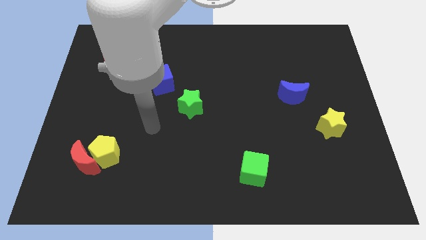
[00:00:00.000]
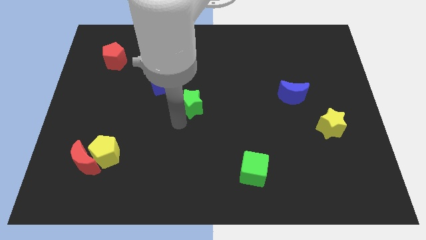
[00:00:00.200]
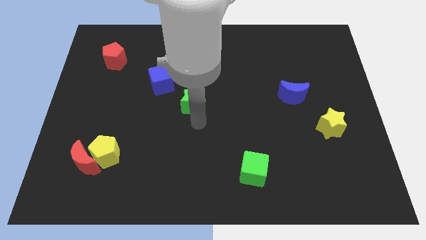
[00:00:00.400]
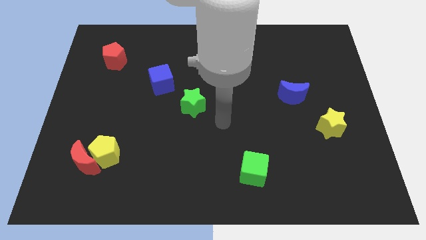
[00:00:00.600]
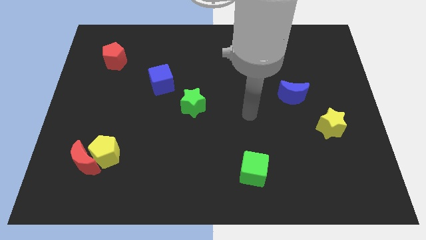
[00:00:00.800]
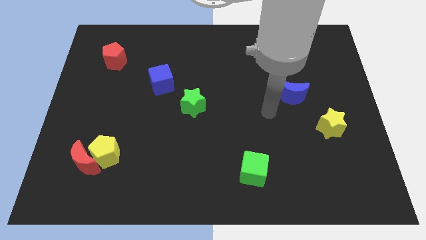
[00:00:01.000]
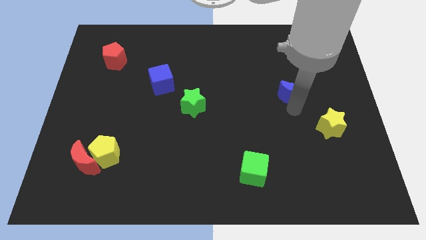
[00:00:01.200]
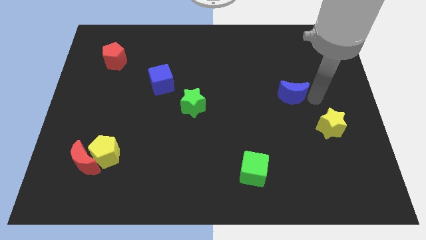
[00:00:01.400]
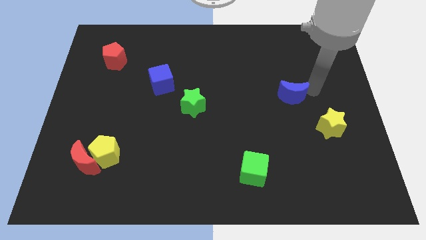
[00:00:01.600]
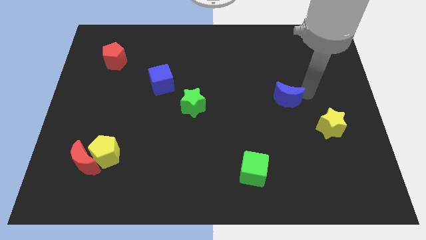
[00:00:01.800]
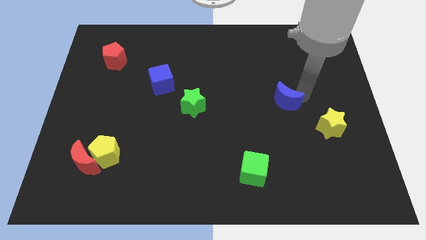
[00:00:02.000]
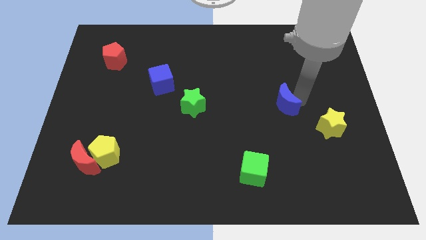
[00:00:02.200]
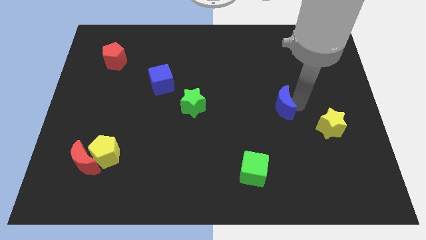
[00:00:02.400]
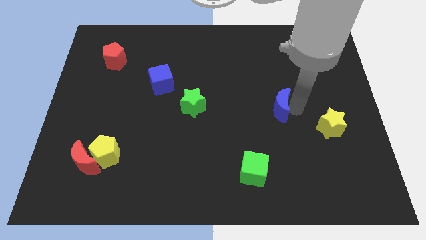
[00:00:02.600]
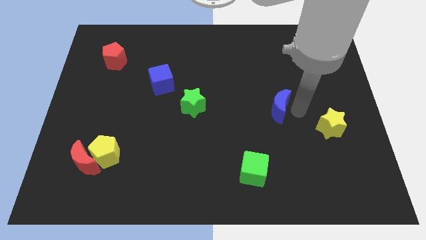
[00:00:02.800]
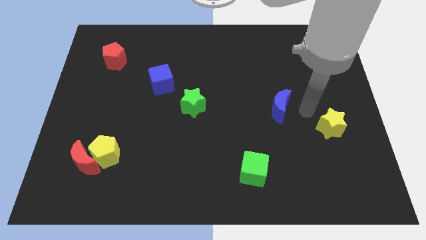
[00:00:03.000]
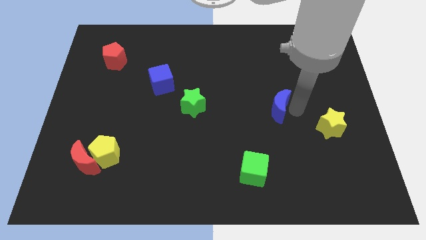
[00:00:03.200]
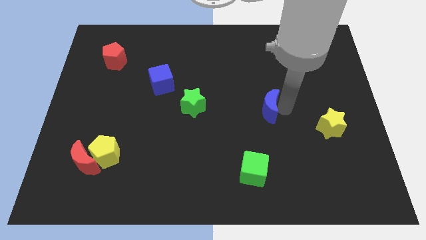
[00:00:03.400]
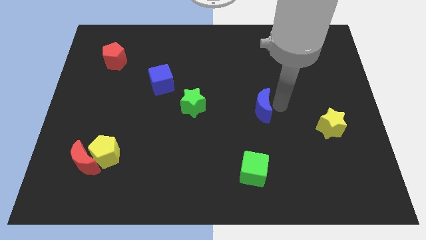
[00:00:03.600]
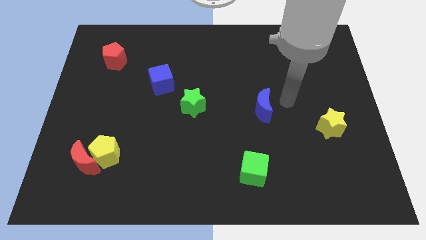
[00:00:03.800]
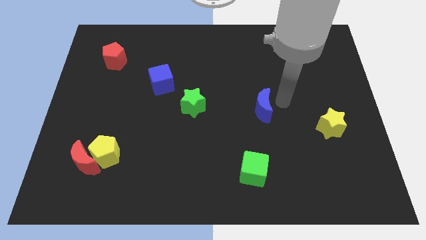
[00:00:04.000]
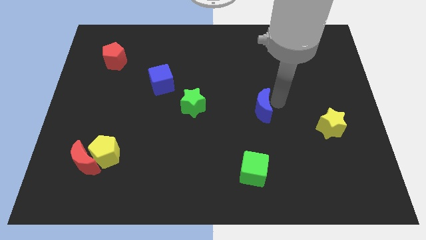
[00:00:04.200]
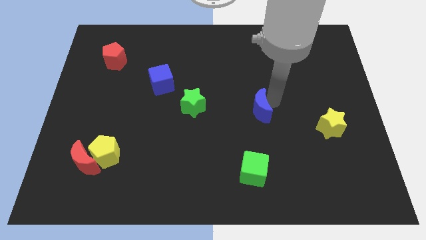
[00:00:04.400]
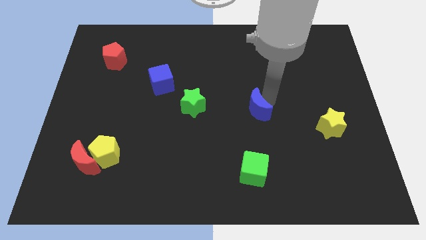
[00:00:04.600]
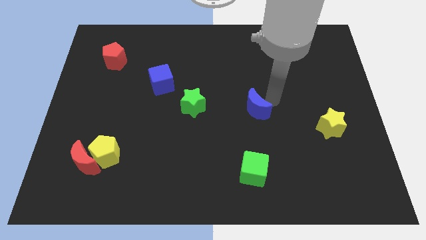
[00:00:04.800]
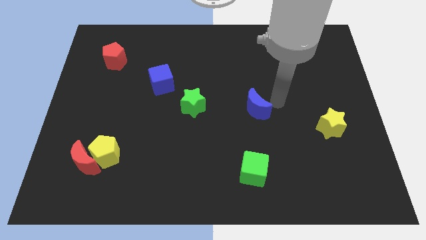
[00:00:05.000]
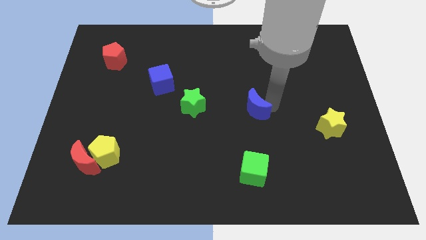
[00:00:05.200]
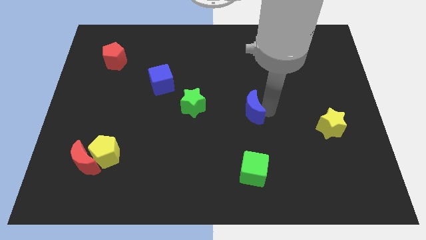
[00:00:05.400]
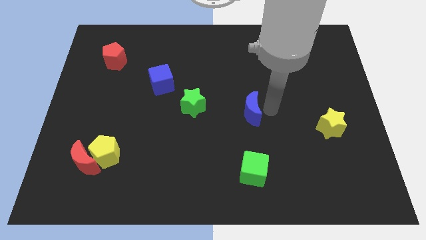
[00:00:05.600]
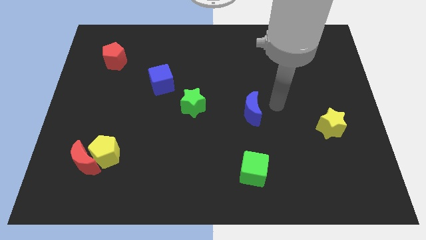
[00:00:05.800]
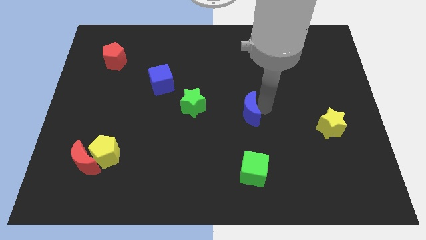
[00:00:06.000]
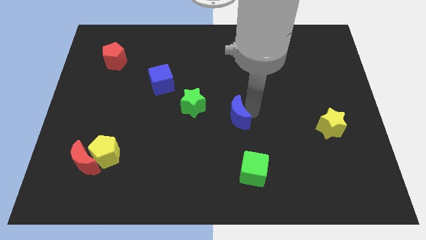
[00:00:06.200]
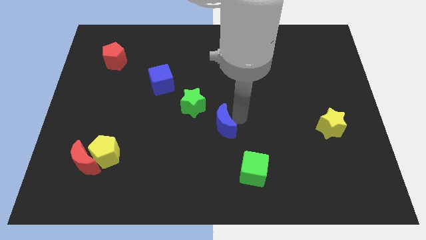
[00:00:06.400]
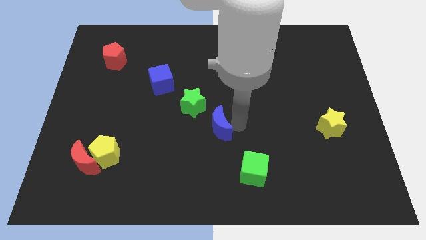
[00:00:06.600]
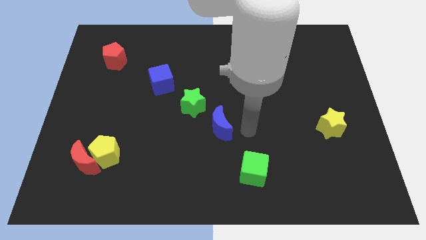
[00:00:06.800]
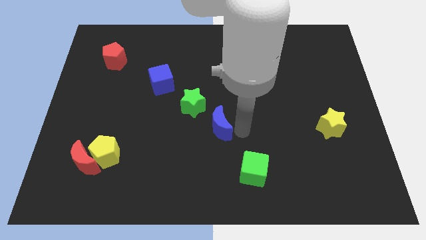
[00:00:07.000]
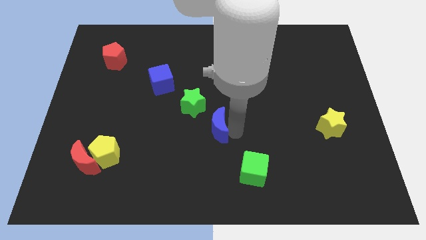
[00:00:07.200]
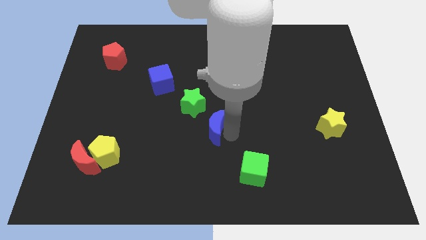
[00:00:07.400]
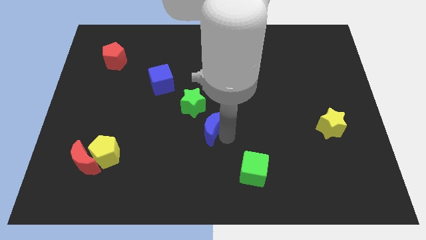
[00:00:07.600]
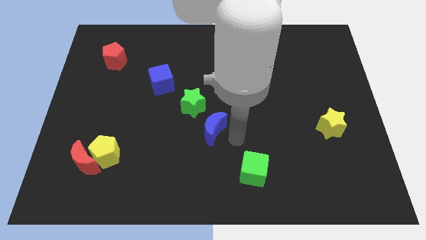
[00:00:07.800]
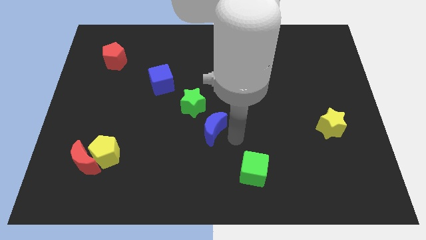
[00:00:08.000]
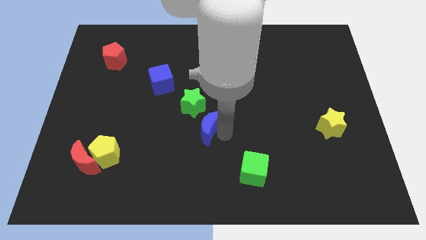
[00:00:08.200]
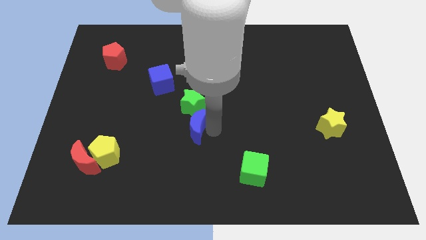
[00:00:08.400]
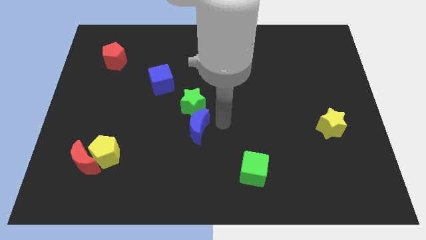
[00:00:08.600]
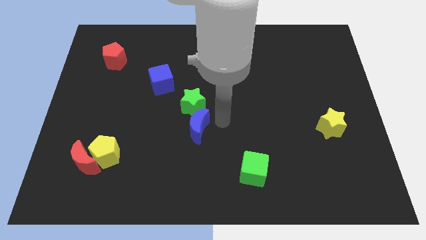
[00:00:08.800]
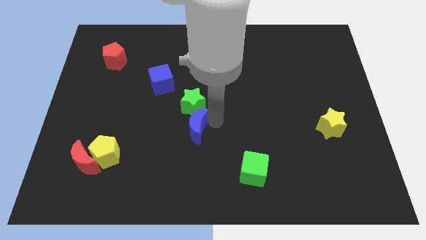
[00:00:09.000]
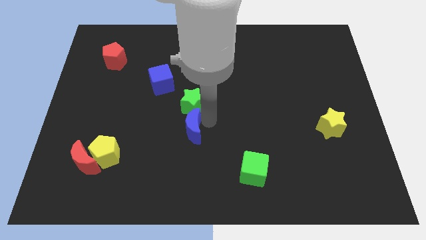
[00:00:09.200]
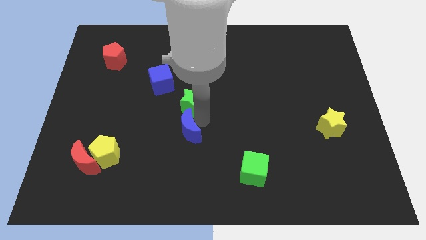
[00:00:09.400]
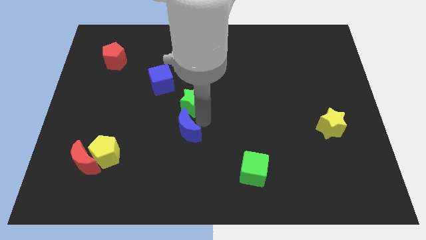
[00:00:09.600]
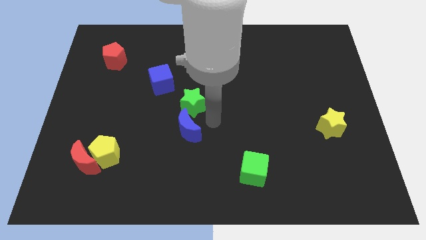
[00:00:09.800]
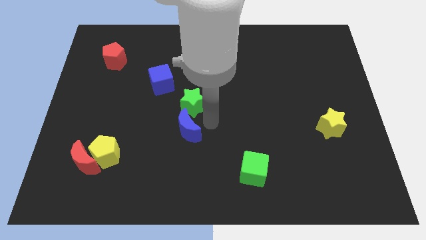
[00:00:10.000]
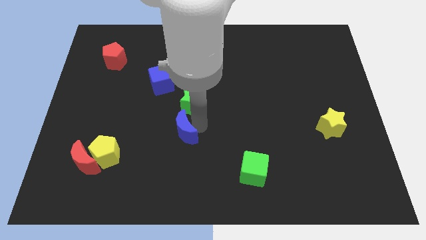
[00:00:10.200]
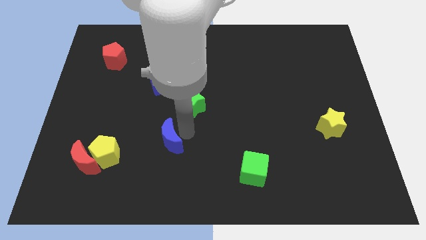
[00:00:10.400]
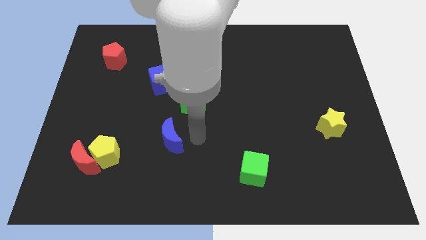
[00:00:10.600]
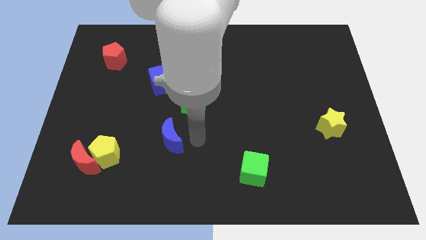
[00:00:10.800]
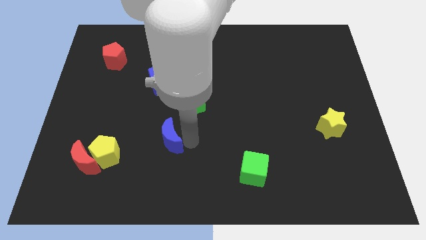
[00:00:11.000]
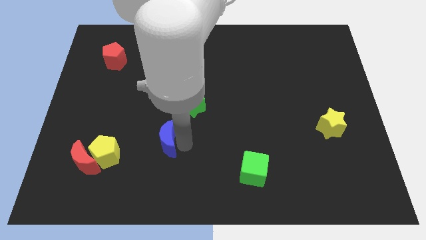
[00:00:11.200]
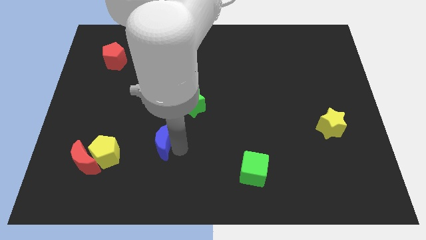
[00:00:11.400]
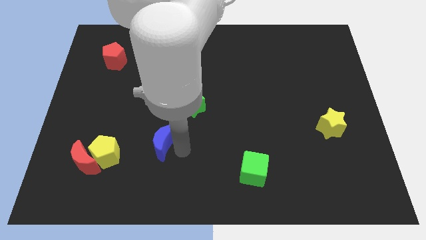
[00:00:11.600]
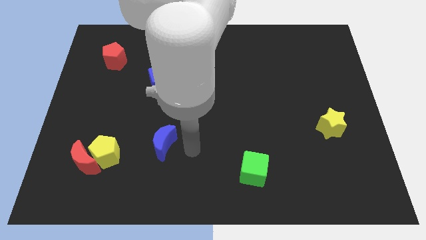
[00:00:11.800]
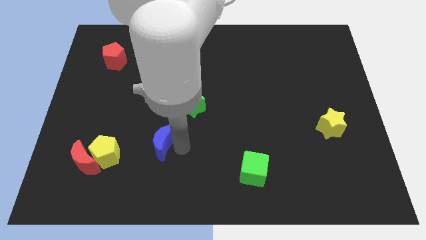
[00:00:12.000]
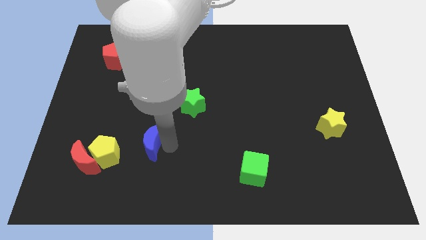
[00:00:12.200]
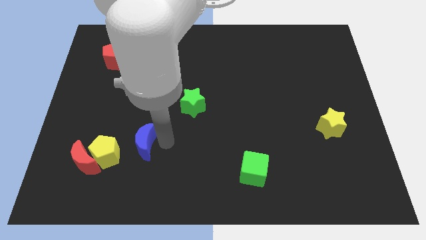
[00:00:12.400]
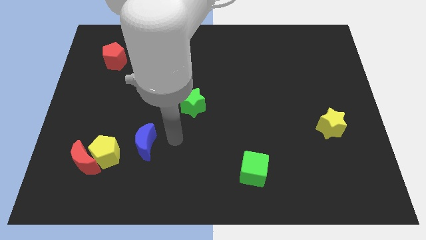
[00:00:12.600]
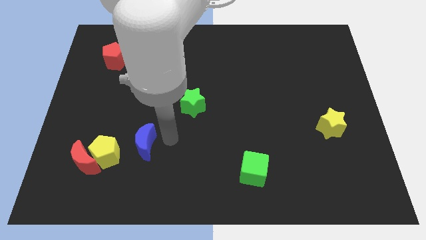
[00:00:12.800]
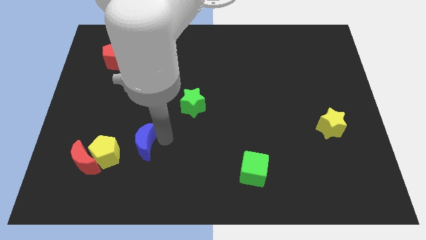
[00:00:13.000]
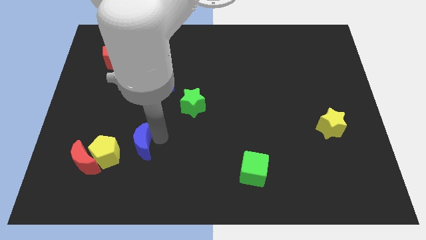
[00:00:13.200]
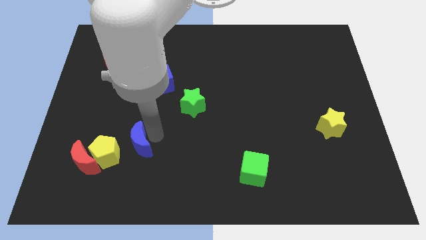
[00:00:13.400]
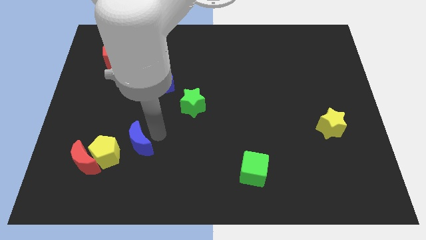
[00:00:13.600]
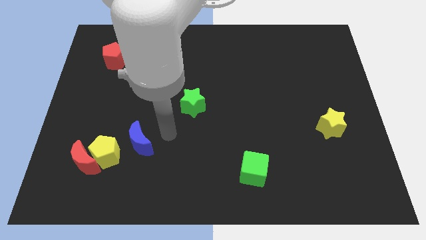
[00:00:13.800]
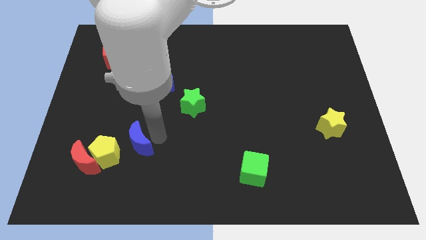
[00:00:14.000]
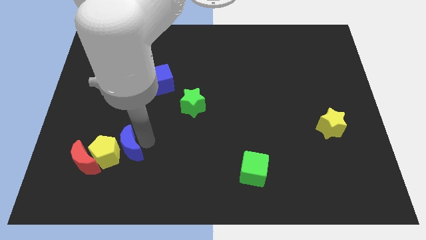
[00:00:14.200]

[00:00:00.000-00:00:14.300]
put the blue moon close to the yellow pentagon
